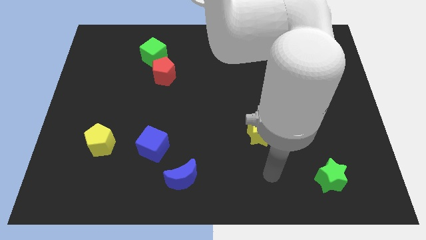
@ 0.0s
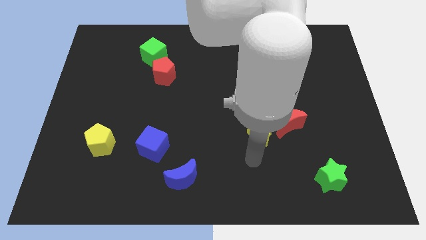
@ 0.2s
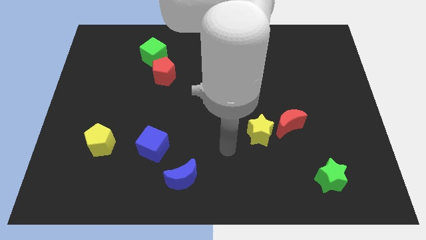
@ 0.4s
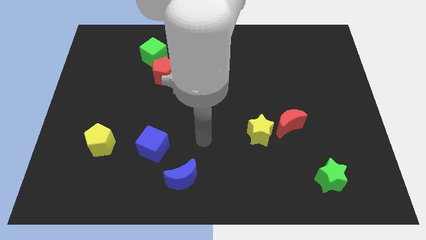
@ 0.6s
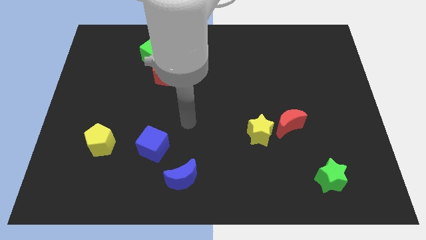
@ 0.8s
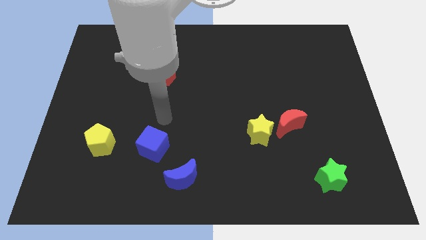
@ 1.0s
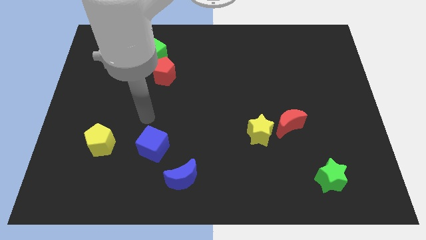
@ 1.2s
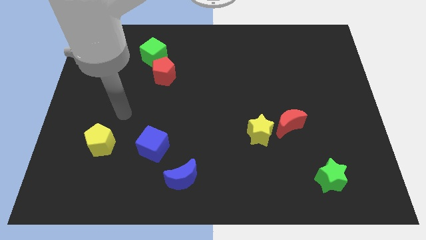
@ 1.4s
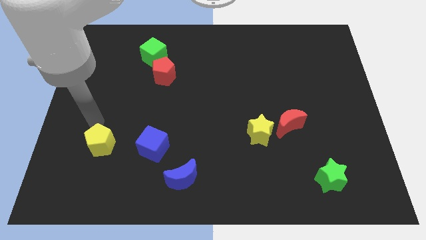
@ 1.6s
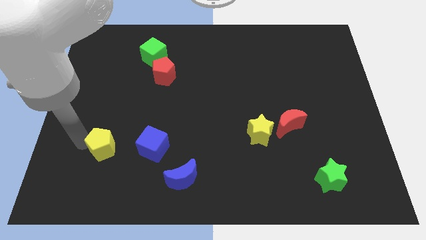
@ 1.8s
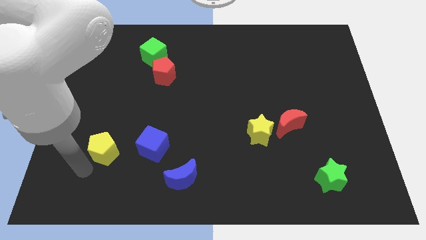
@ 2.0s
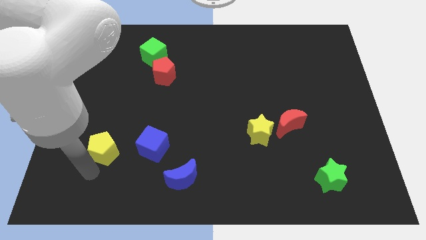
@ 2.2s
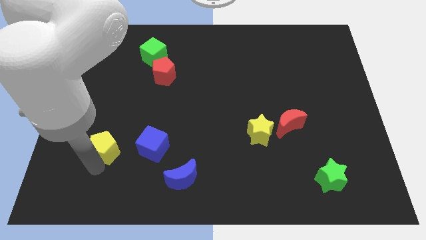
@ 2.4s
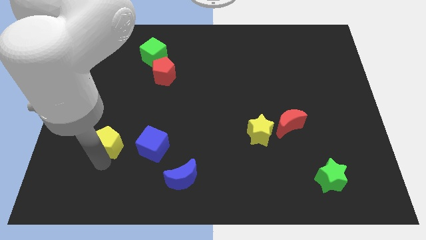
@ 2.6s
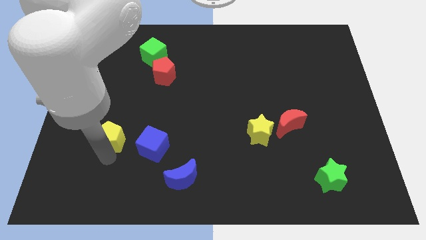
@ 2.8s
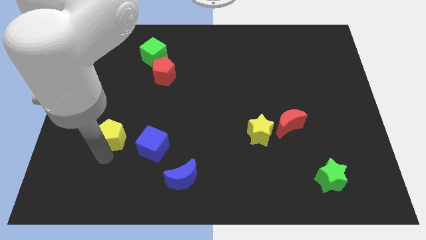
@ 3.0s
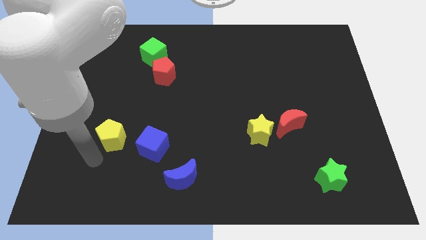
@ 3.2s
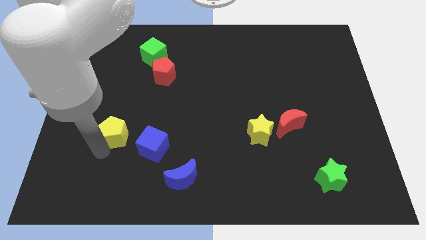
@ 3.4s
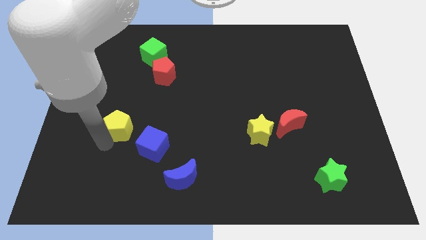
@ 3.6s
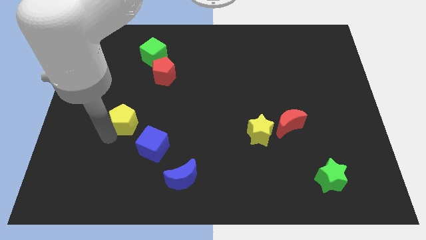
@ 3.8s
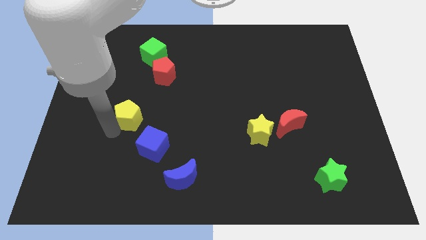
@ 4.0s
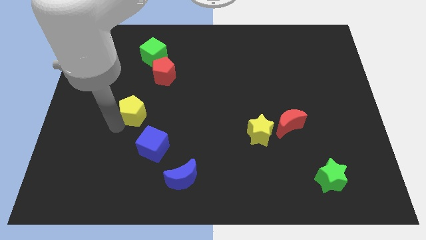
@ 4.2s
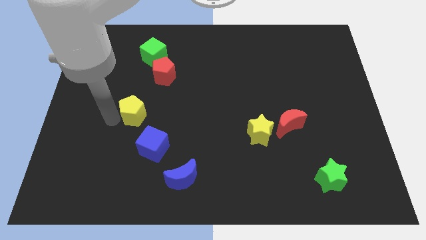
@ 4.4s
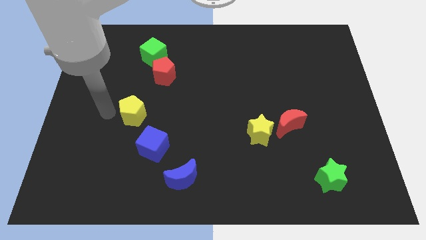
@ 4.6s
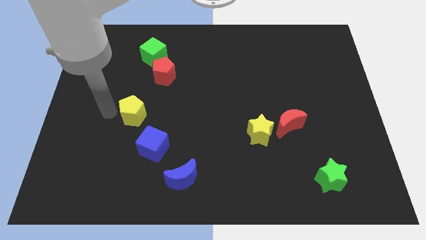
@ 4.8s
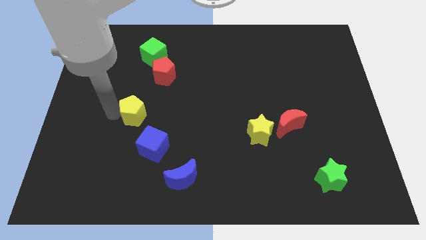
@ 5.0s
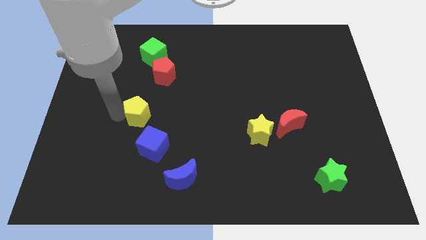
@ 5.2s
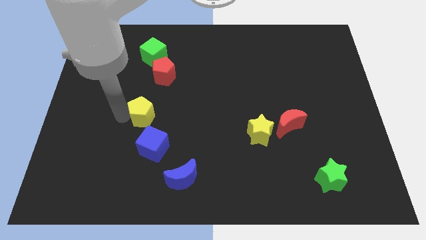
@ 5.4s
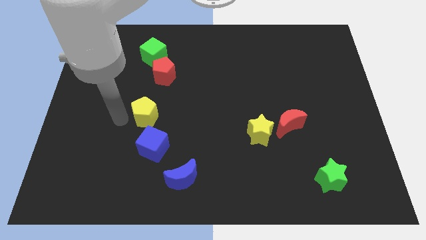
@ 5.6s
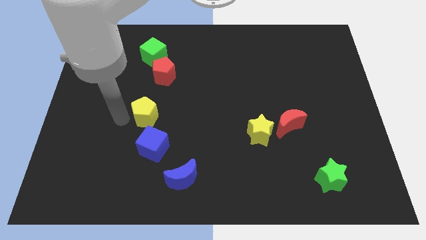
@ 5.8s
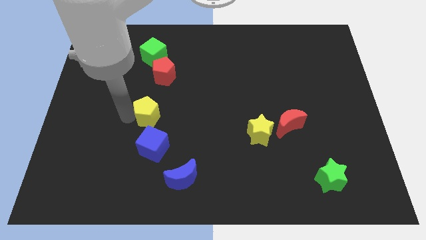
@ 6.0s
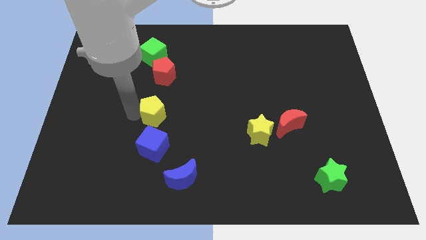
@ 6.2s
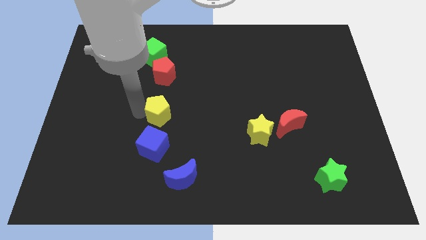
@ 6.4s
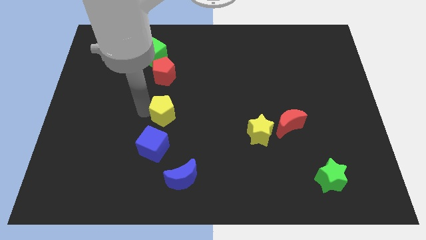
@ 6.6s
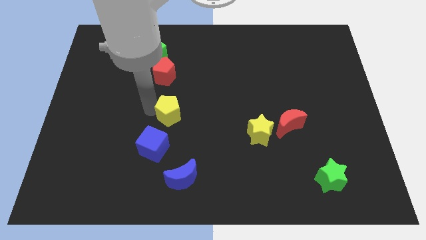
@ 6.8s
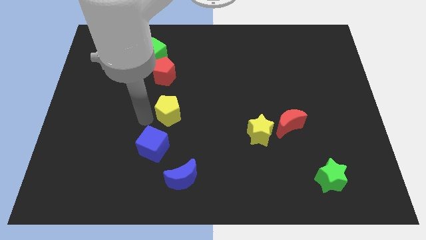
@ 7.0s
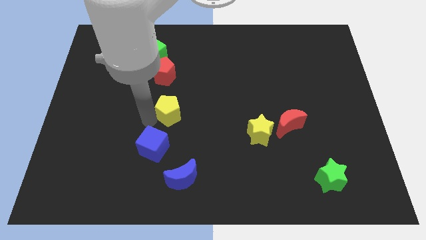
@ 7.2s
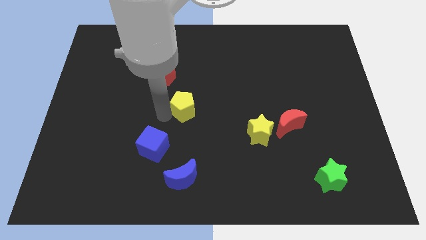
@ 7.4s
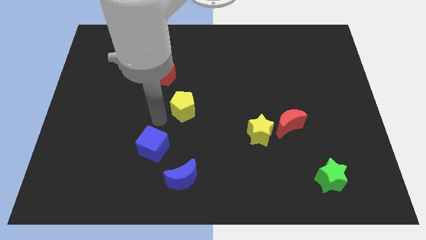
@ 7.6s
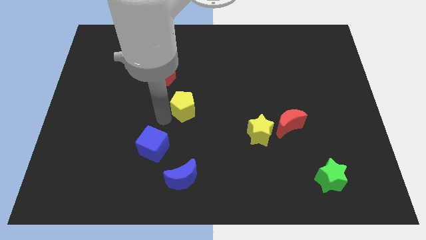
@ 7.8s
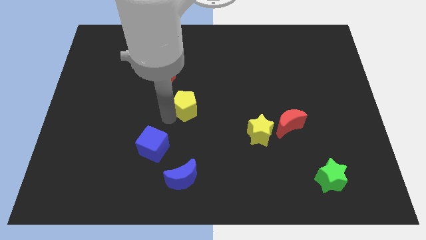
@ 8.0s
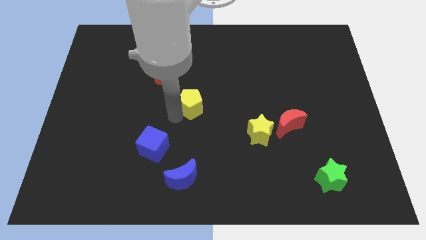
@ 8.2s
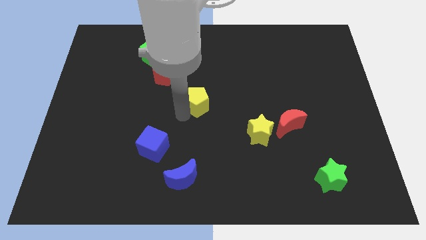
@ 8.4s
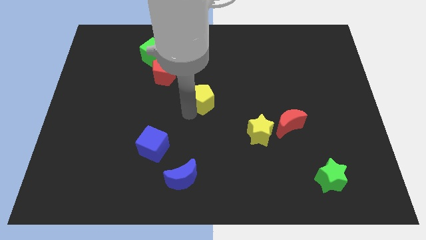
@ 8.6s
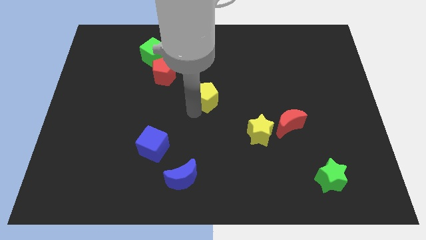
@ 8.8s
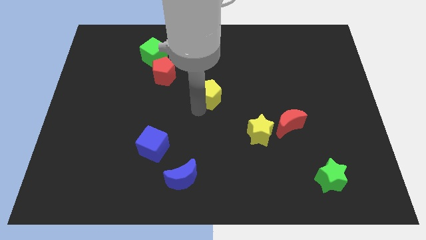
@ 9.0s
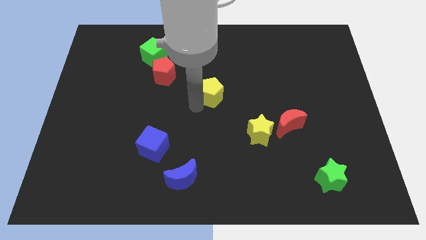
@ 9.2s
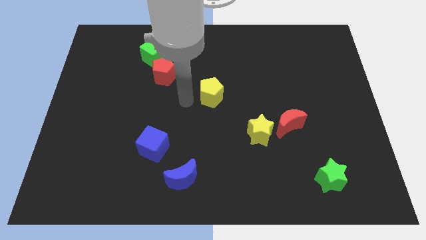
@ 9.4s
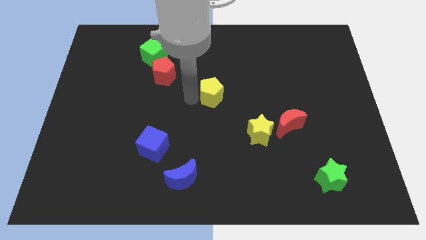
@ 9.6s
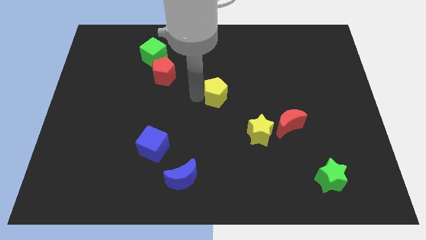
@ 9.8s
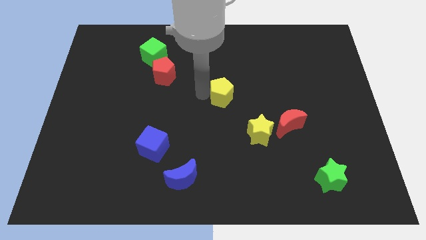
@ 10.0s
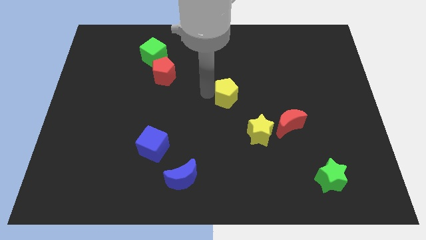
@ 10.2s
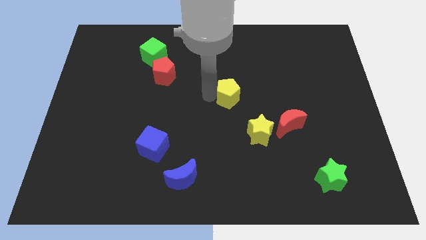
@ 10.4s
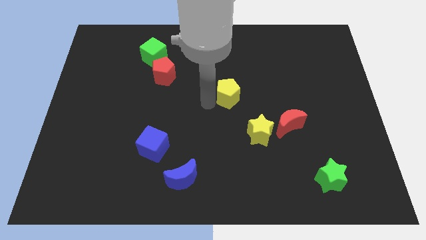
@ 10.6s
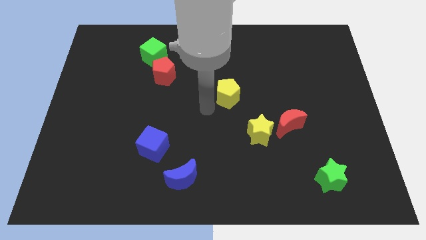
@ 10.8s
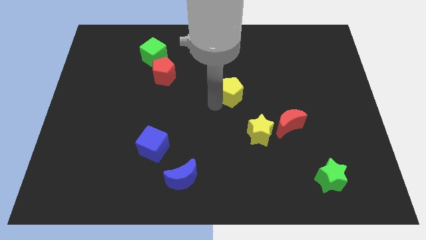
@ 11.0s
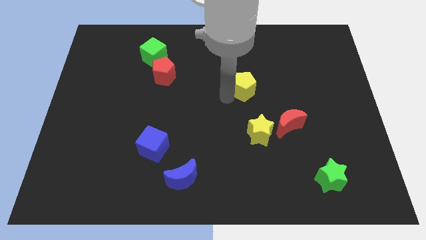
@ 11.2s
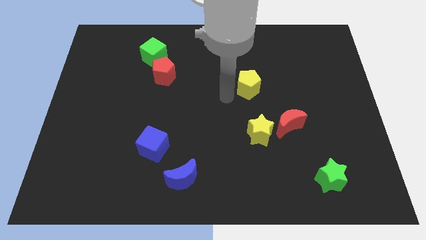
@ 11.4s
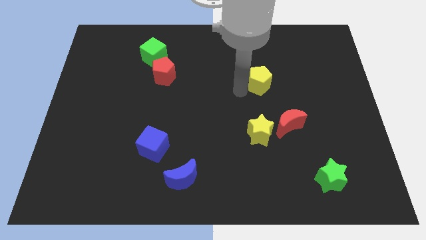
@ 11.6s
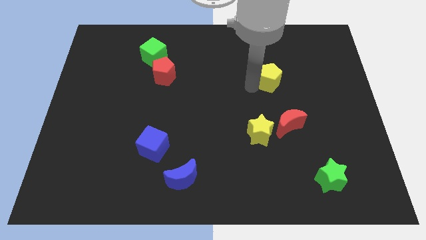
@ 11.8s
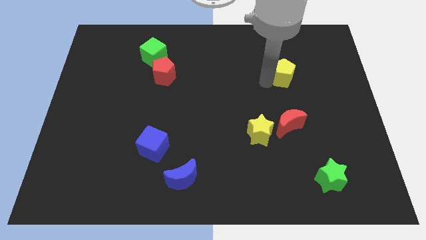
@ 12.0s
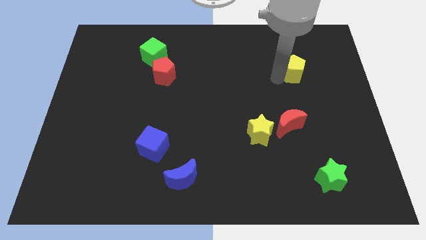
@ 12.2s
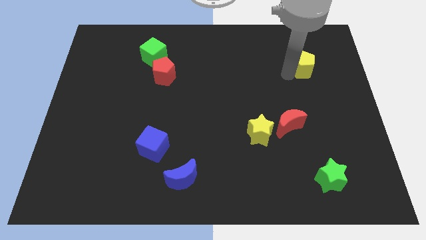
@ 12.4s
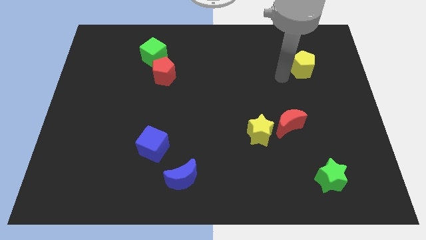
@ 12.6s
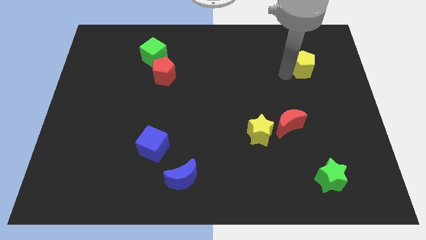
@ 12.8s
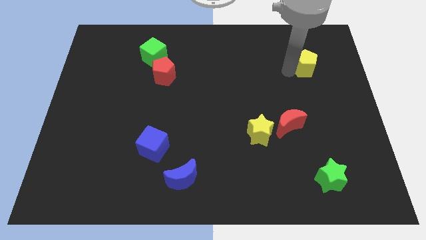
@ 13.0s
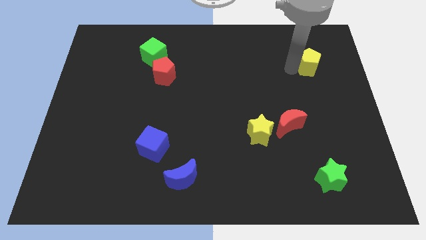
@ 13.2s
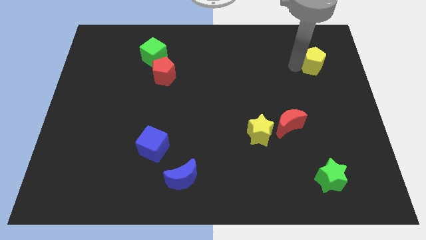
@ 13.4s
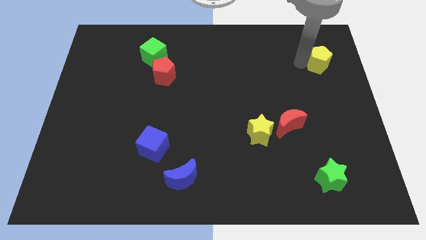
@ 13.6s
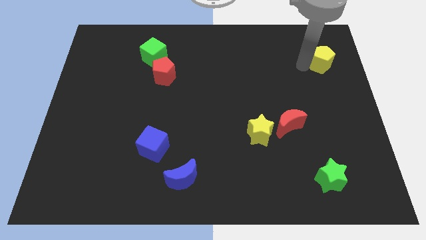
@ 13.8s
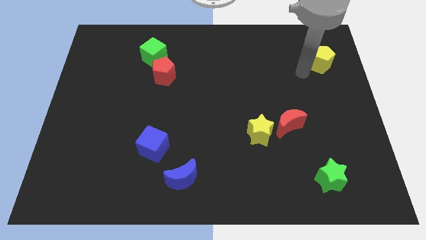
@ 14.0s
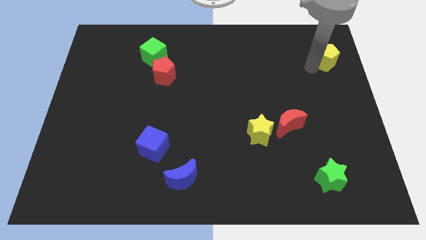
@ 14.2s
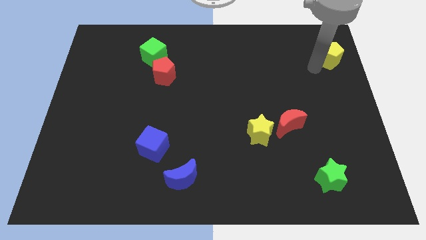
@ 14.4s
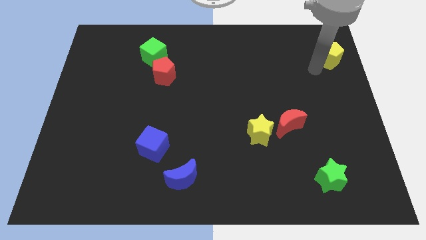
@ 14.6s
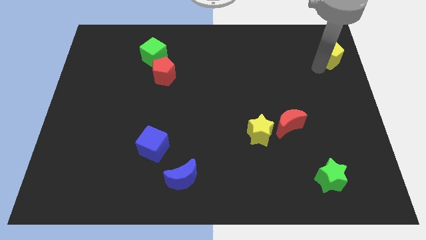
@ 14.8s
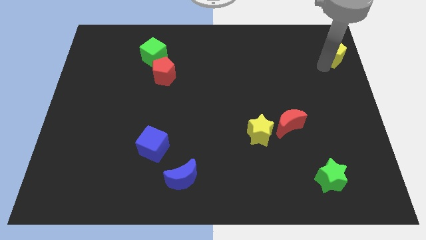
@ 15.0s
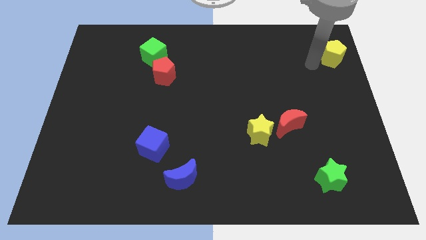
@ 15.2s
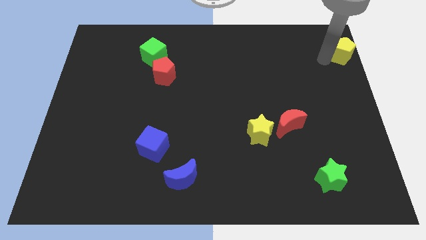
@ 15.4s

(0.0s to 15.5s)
push the yellow pentagon to the top right of the board
